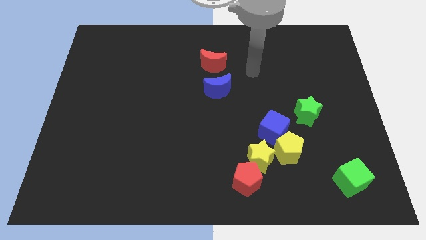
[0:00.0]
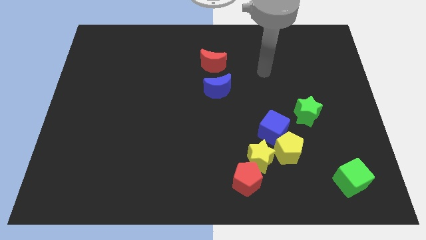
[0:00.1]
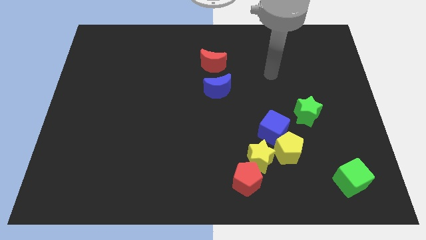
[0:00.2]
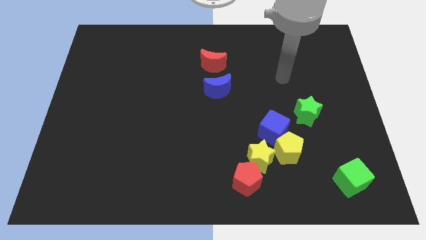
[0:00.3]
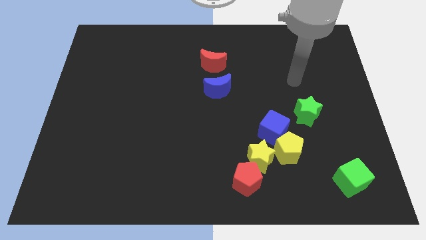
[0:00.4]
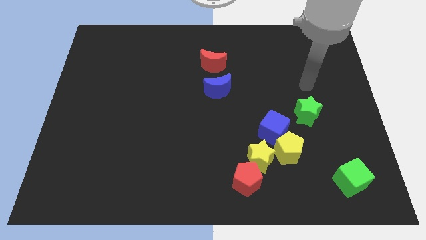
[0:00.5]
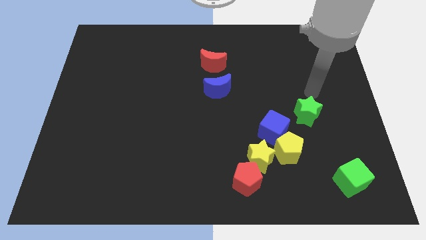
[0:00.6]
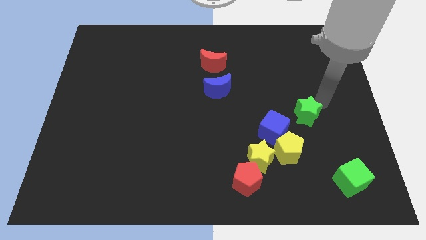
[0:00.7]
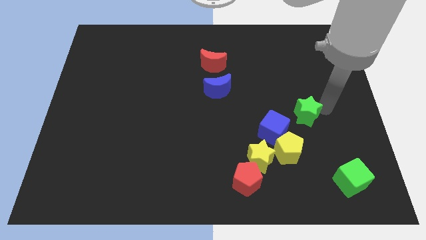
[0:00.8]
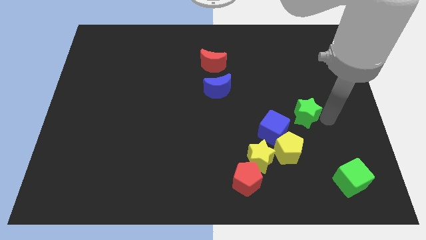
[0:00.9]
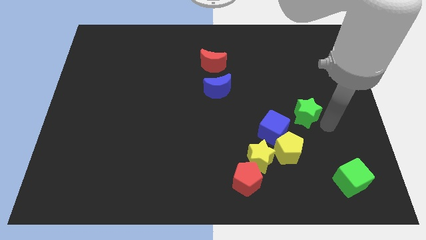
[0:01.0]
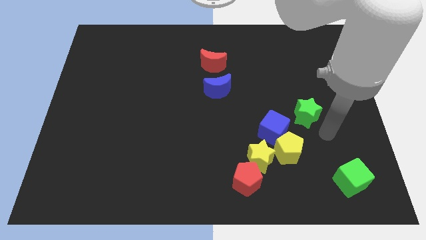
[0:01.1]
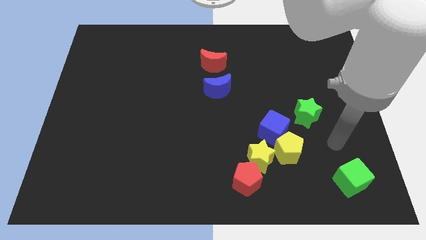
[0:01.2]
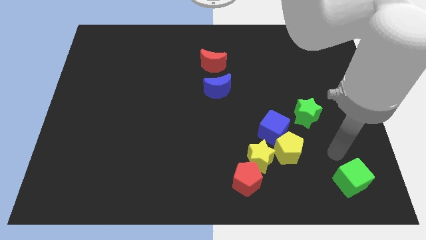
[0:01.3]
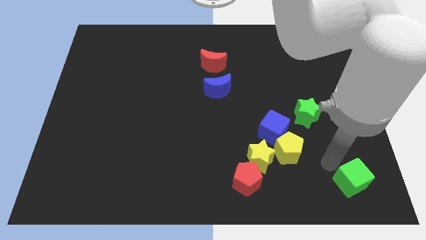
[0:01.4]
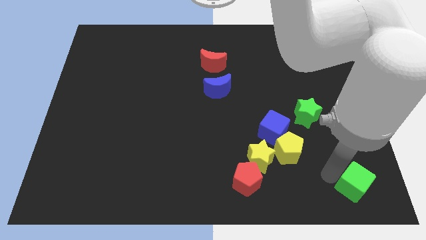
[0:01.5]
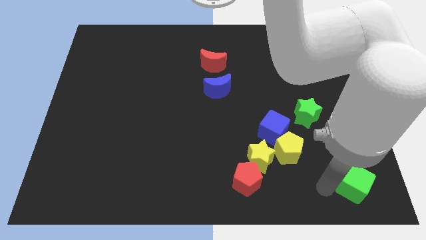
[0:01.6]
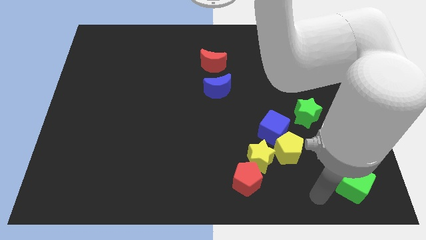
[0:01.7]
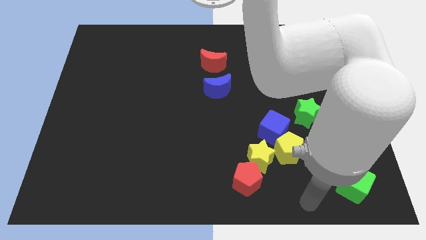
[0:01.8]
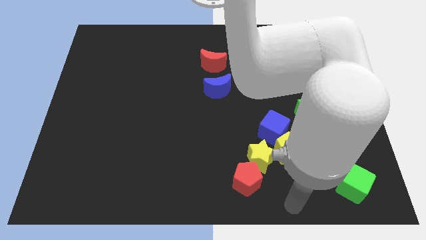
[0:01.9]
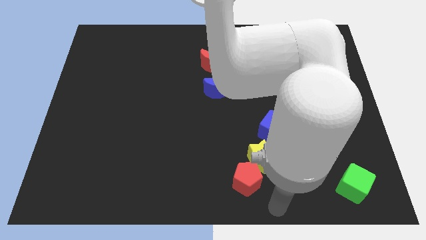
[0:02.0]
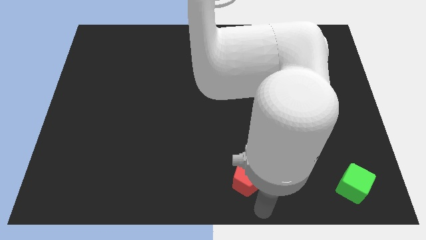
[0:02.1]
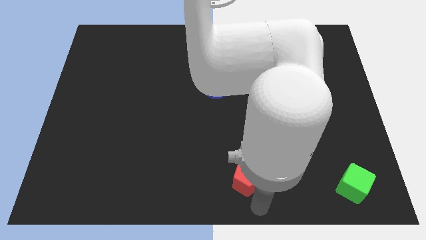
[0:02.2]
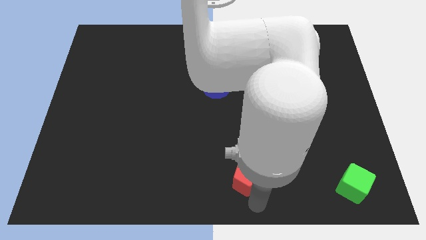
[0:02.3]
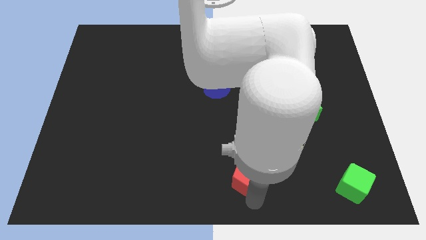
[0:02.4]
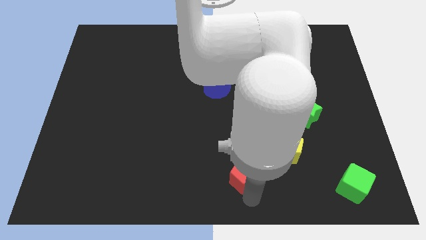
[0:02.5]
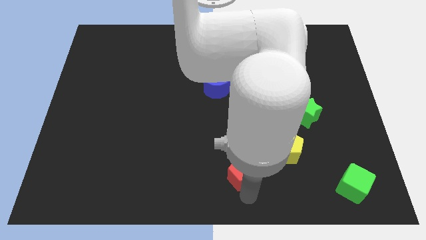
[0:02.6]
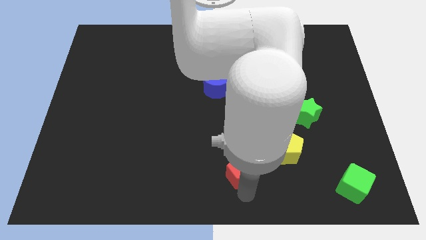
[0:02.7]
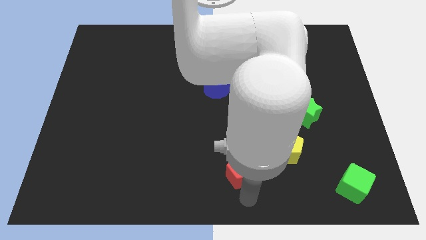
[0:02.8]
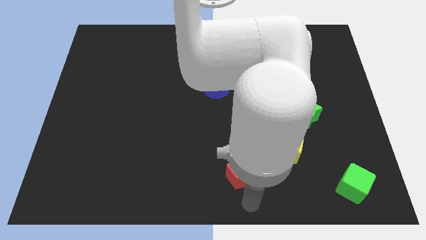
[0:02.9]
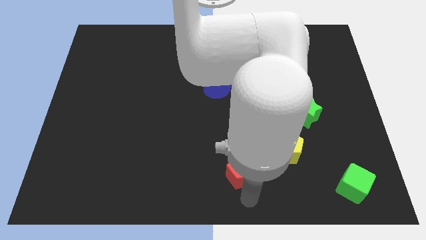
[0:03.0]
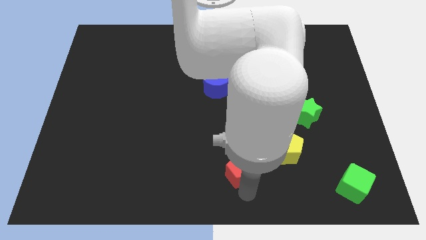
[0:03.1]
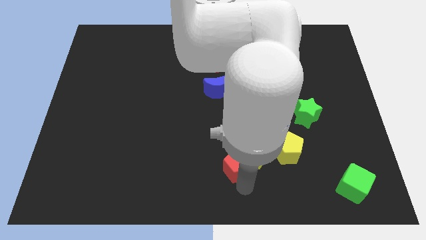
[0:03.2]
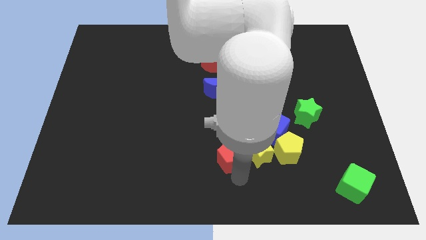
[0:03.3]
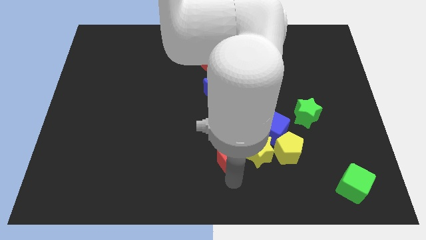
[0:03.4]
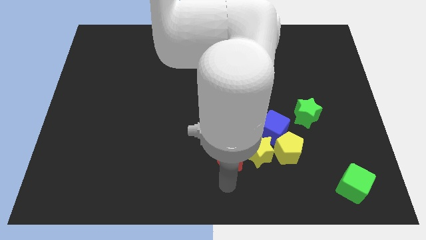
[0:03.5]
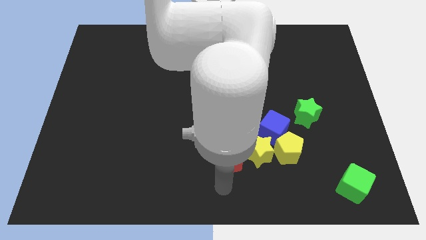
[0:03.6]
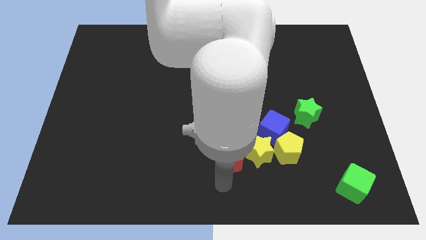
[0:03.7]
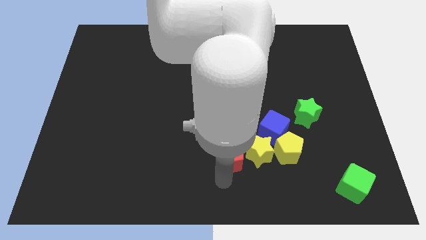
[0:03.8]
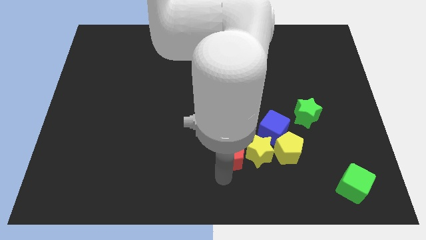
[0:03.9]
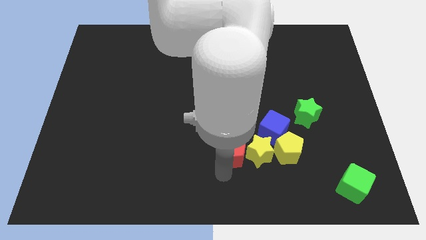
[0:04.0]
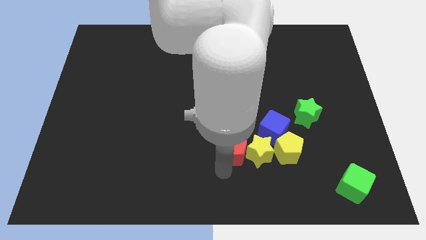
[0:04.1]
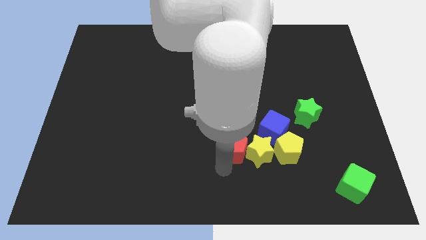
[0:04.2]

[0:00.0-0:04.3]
slightly move the red pentagon upwards

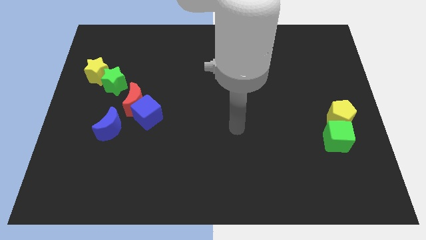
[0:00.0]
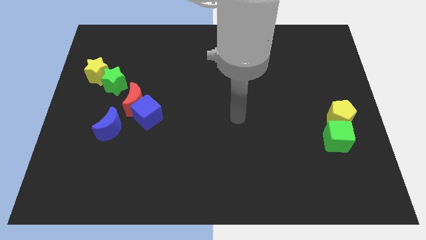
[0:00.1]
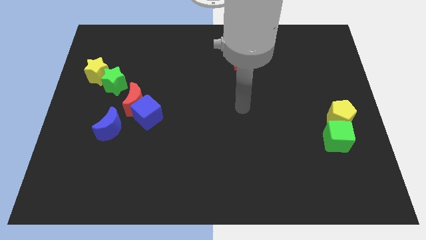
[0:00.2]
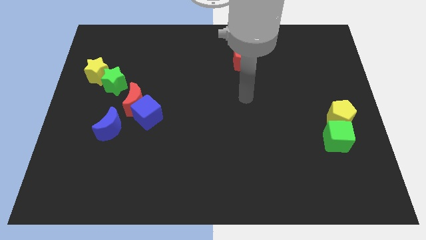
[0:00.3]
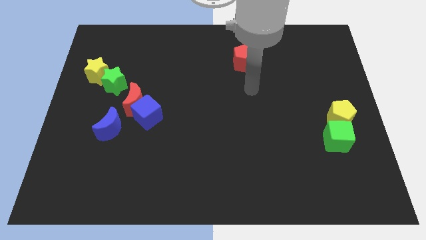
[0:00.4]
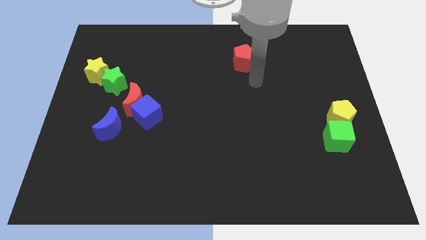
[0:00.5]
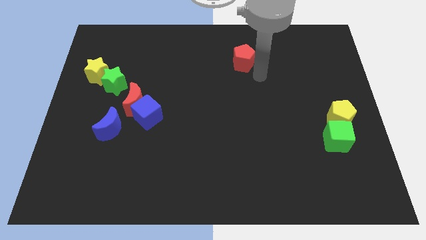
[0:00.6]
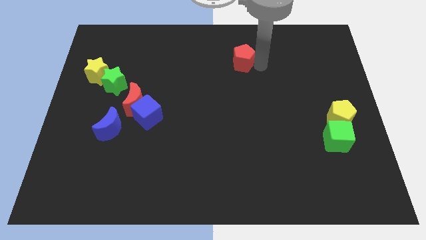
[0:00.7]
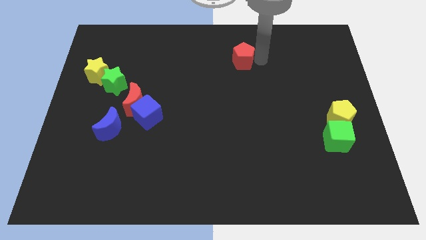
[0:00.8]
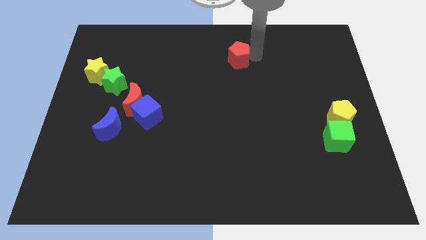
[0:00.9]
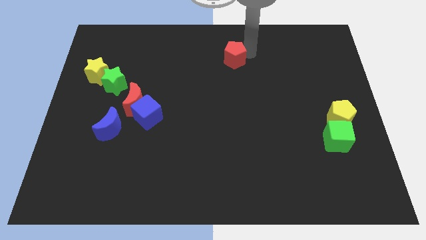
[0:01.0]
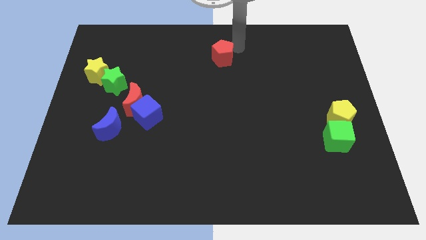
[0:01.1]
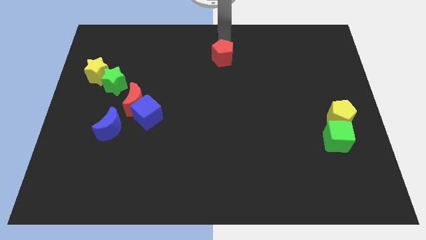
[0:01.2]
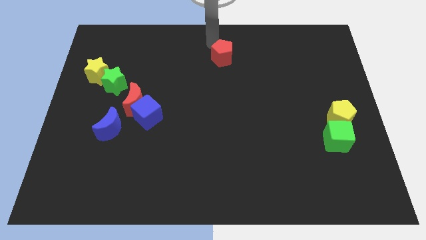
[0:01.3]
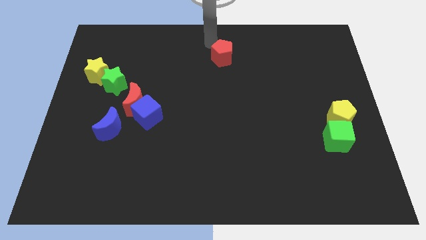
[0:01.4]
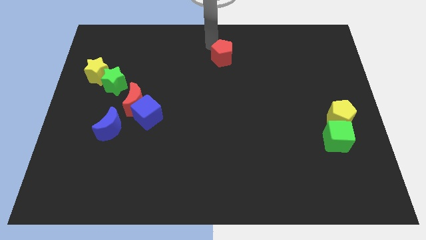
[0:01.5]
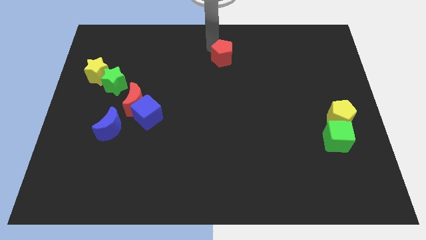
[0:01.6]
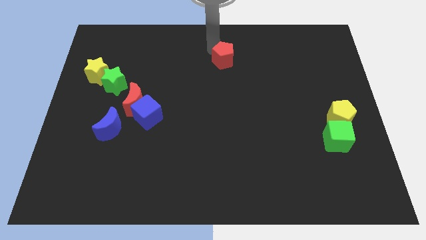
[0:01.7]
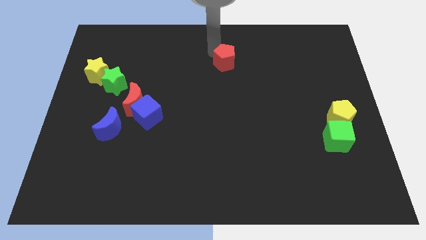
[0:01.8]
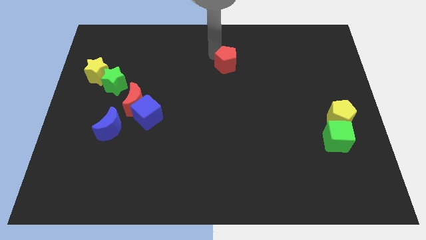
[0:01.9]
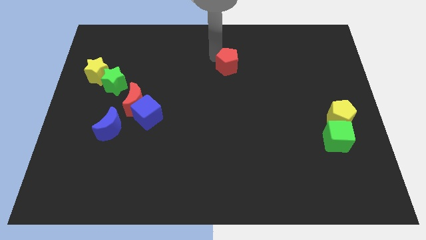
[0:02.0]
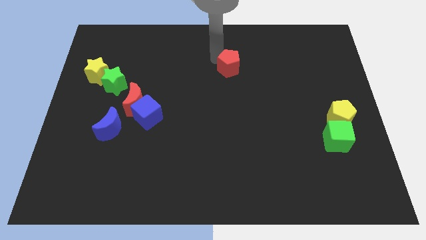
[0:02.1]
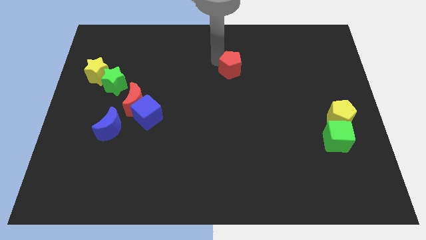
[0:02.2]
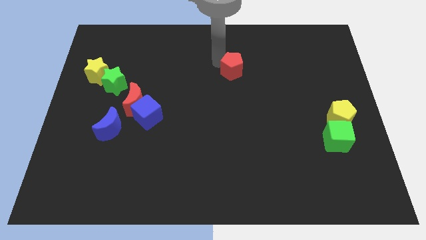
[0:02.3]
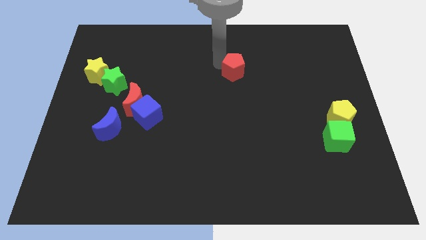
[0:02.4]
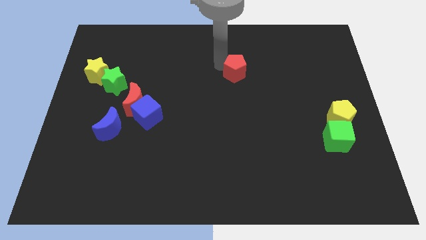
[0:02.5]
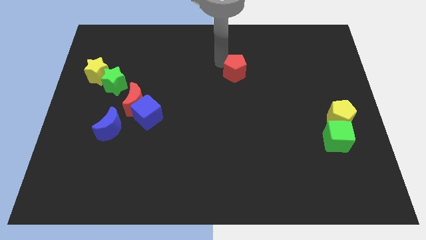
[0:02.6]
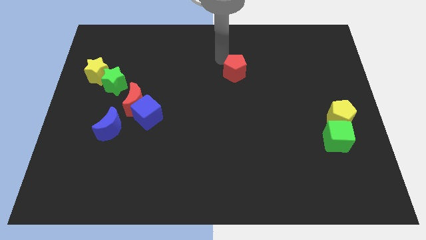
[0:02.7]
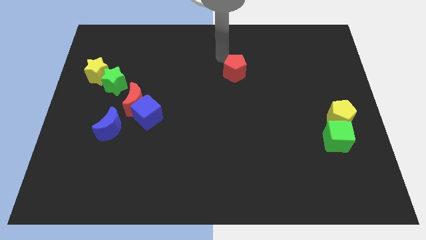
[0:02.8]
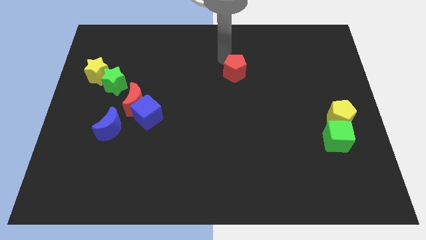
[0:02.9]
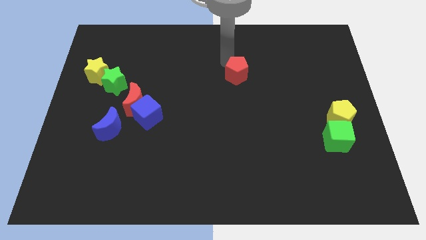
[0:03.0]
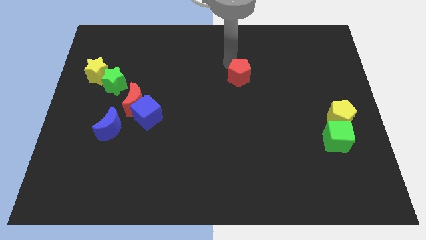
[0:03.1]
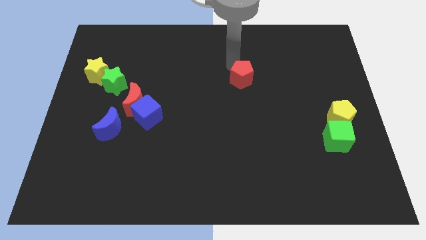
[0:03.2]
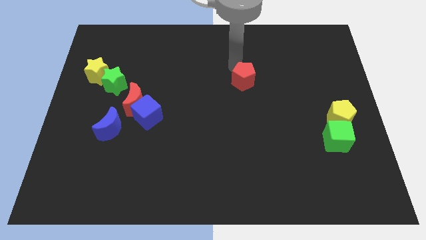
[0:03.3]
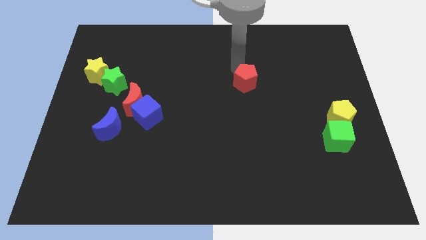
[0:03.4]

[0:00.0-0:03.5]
slightly slide the red pentagon downwards
